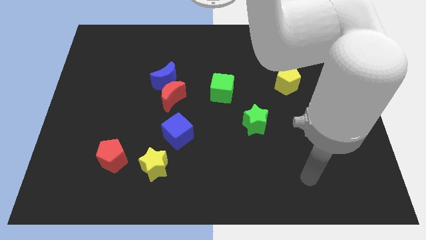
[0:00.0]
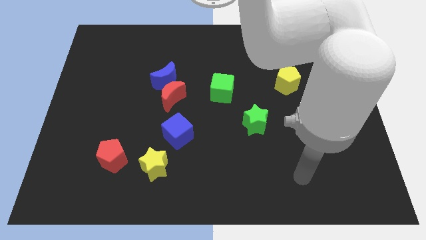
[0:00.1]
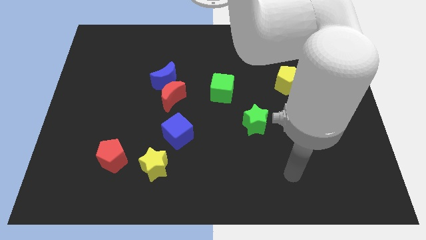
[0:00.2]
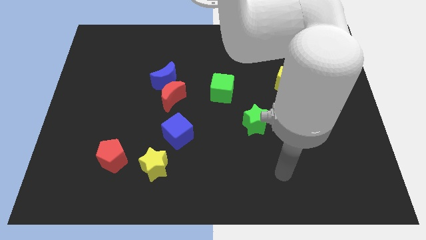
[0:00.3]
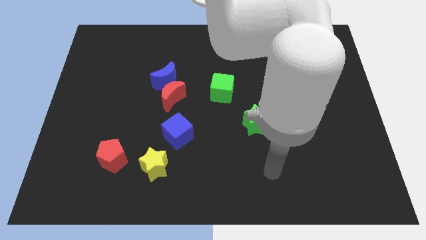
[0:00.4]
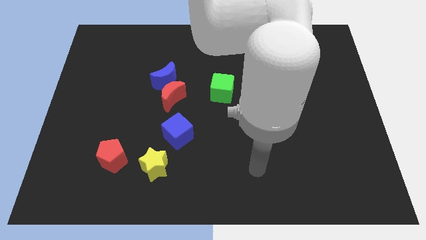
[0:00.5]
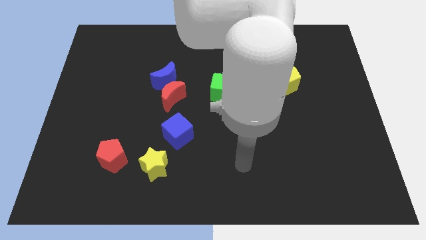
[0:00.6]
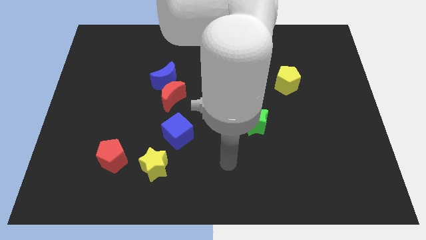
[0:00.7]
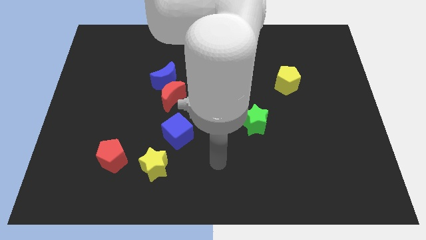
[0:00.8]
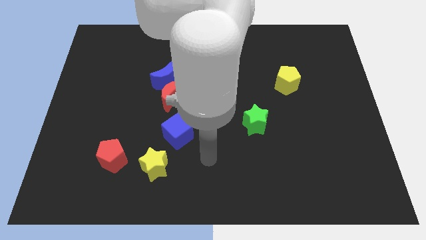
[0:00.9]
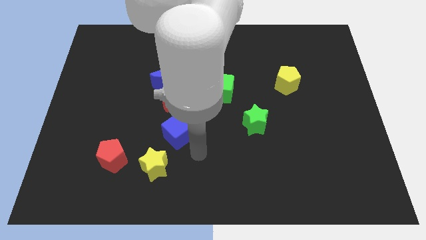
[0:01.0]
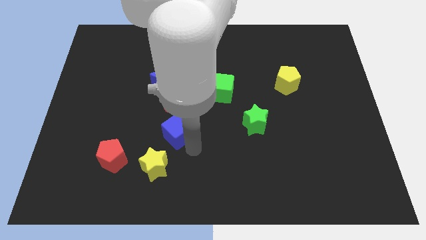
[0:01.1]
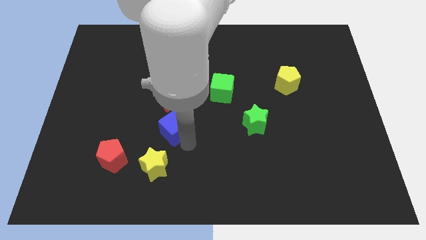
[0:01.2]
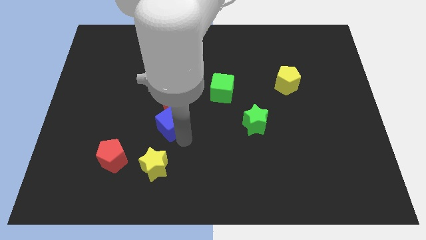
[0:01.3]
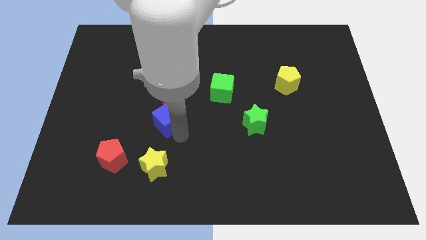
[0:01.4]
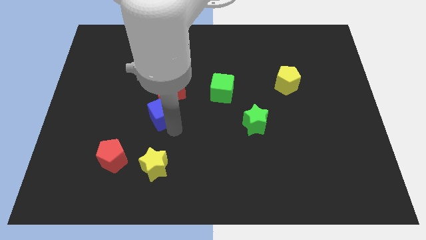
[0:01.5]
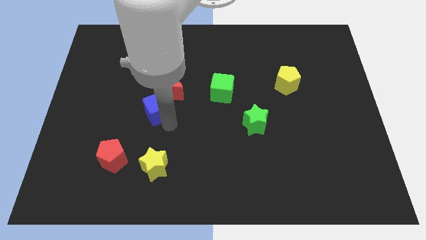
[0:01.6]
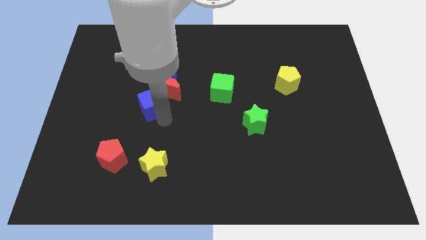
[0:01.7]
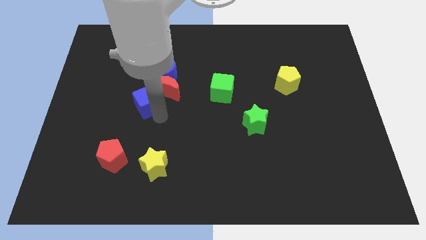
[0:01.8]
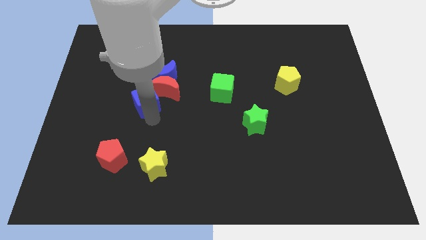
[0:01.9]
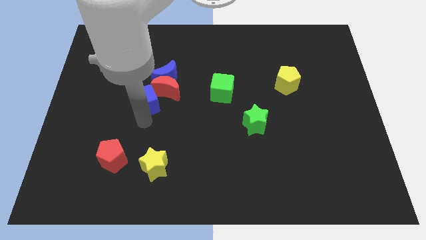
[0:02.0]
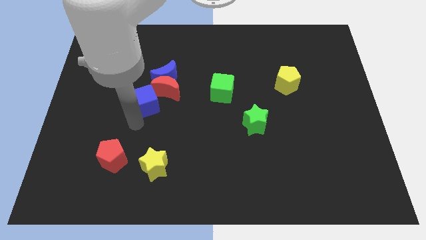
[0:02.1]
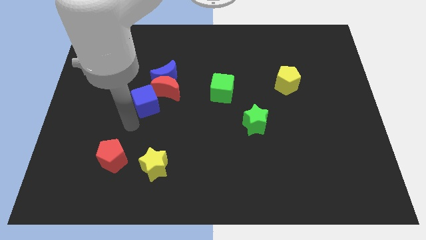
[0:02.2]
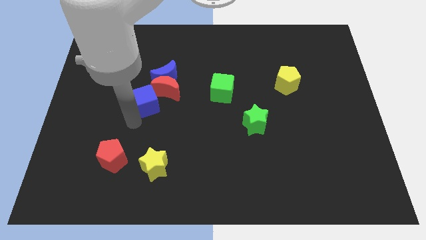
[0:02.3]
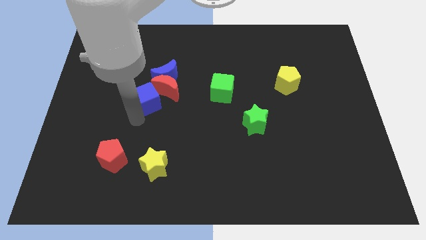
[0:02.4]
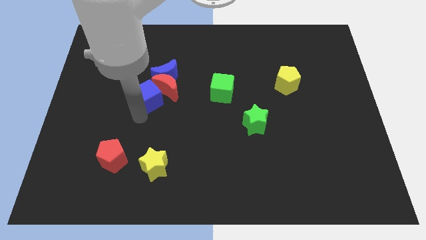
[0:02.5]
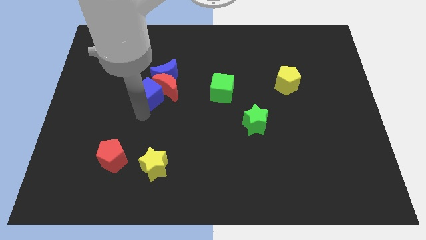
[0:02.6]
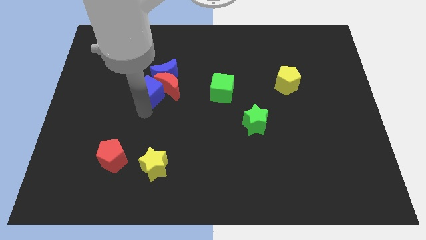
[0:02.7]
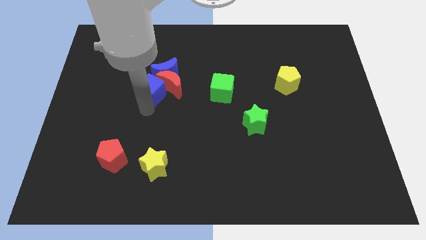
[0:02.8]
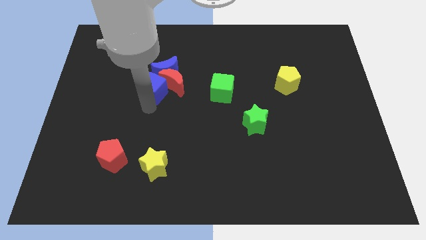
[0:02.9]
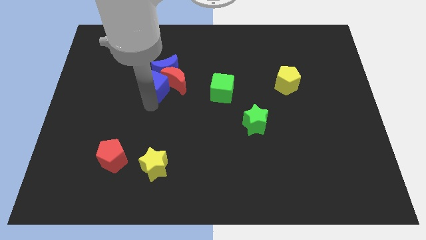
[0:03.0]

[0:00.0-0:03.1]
move the blue cube next to the blue moon

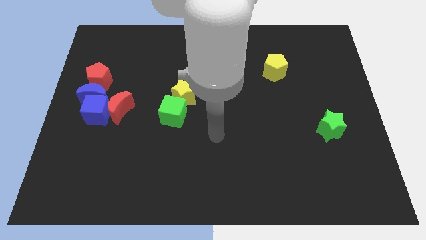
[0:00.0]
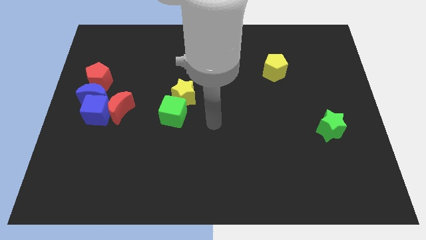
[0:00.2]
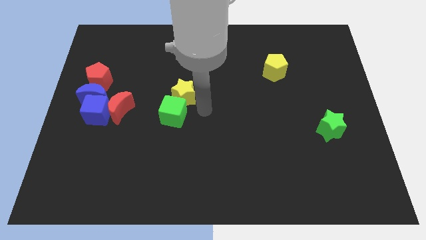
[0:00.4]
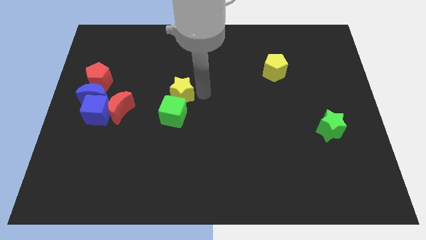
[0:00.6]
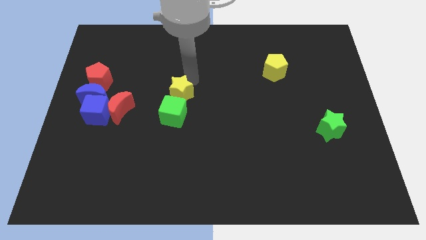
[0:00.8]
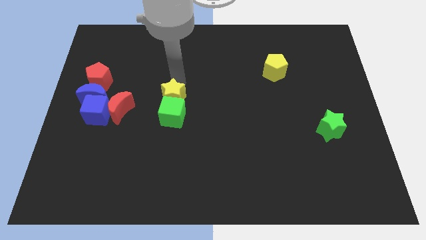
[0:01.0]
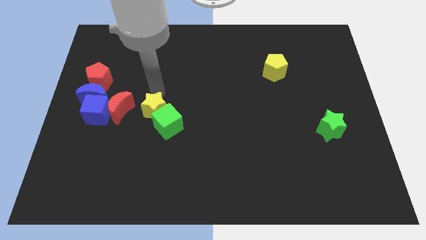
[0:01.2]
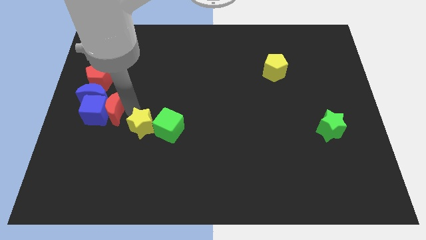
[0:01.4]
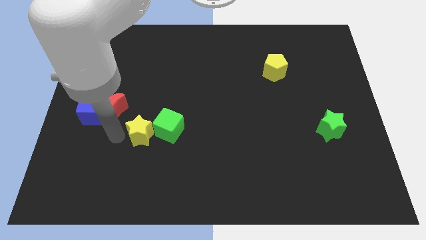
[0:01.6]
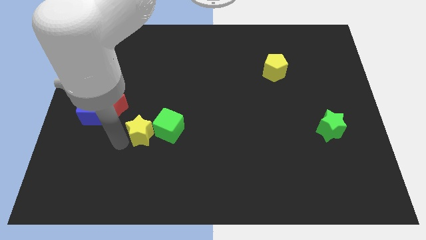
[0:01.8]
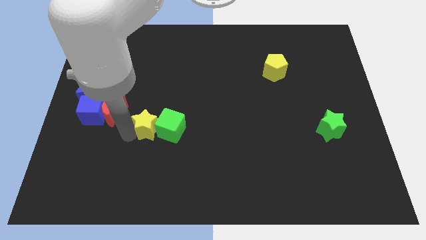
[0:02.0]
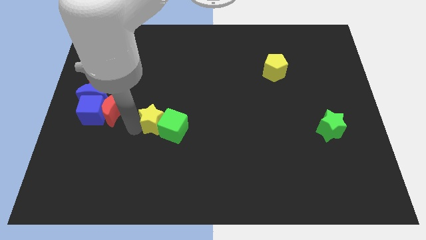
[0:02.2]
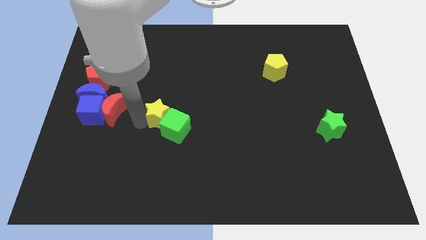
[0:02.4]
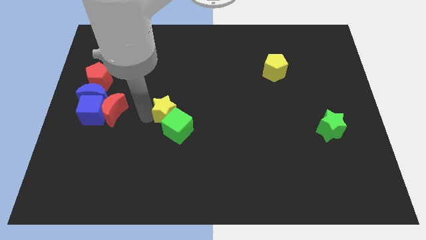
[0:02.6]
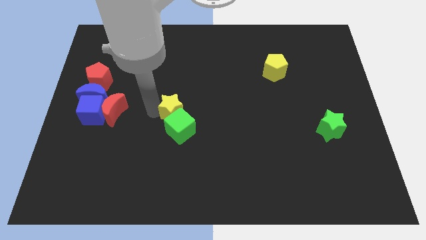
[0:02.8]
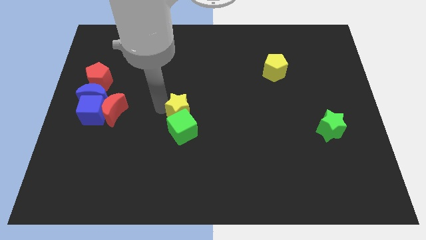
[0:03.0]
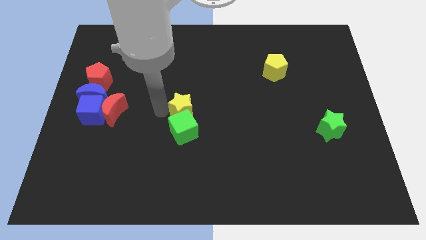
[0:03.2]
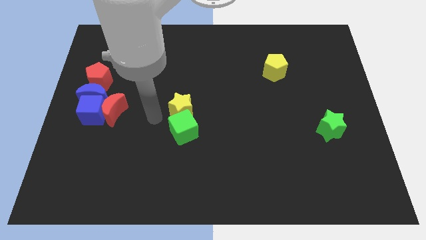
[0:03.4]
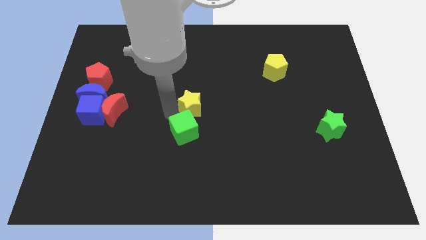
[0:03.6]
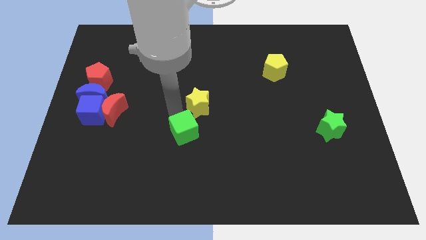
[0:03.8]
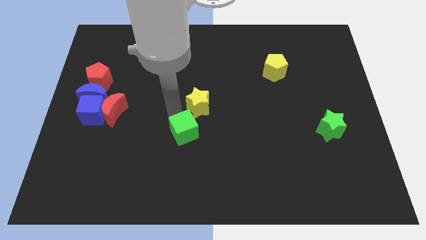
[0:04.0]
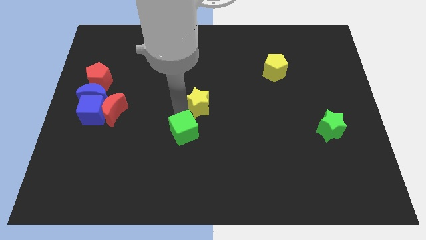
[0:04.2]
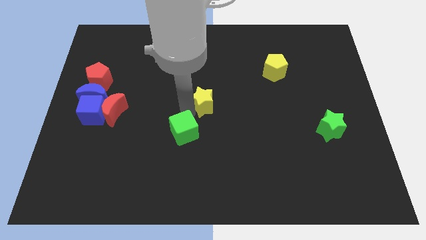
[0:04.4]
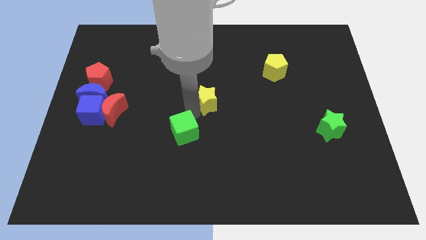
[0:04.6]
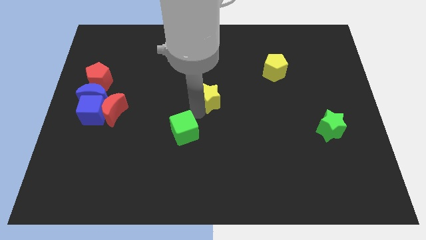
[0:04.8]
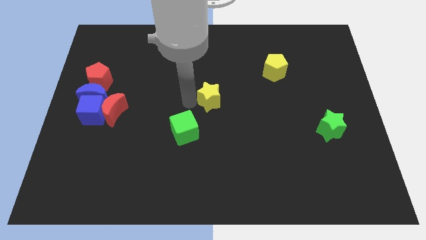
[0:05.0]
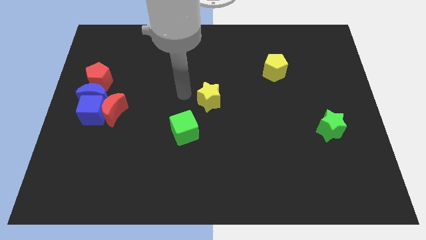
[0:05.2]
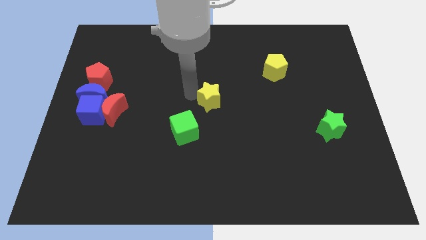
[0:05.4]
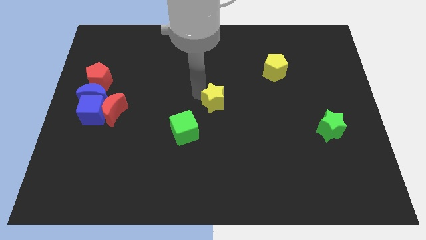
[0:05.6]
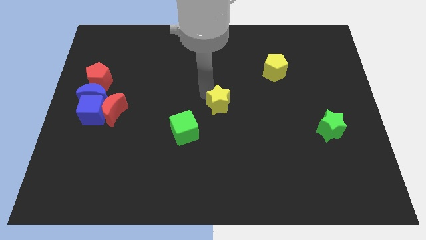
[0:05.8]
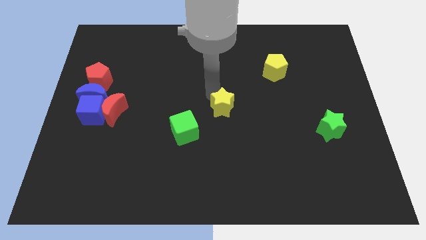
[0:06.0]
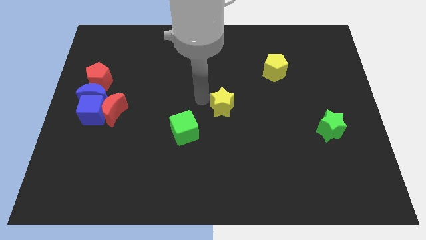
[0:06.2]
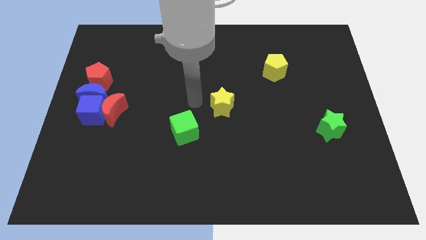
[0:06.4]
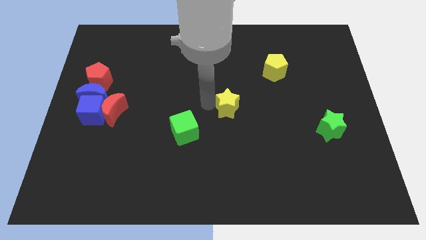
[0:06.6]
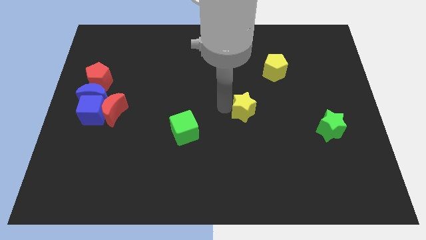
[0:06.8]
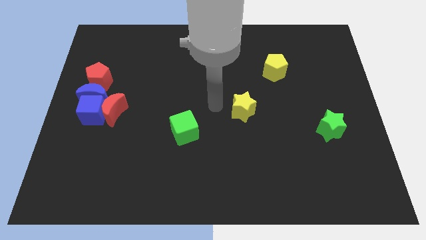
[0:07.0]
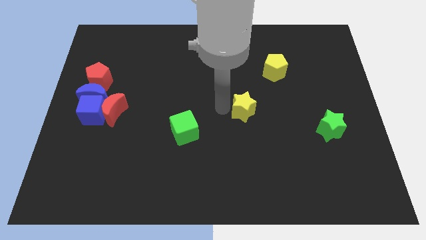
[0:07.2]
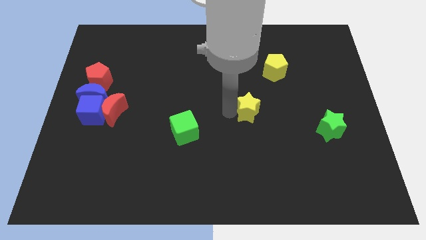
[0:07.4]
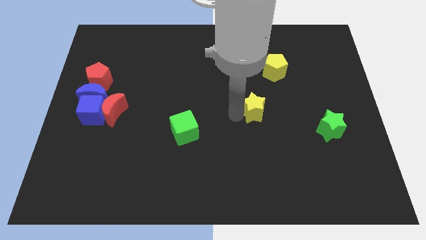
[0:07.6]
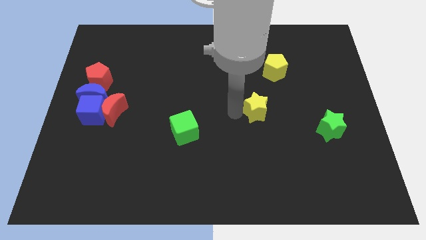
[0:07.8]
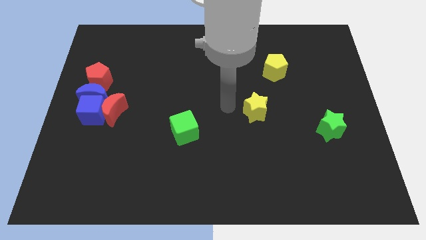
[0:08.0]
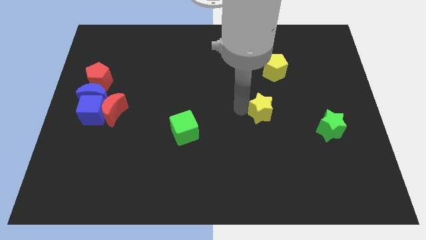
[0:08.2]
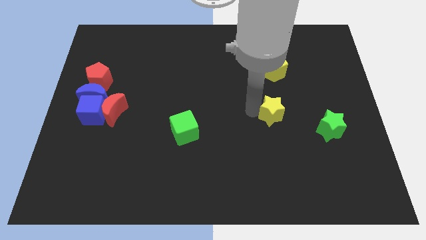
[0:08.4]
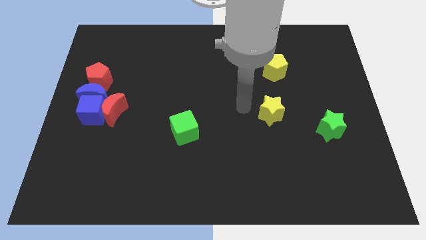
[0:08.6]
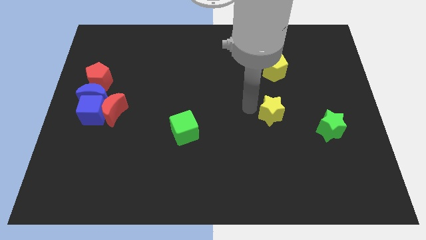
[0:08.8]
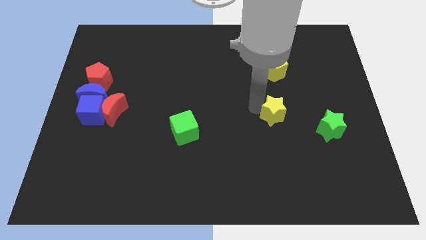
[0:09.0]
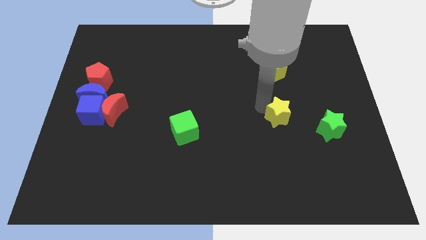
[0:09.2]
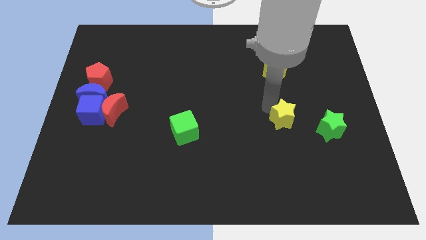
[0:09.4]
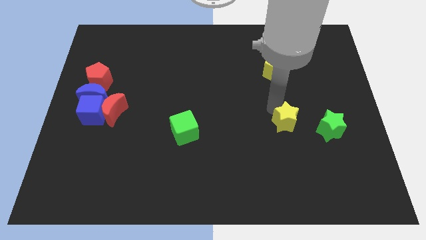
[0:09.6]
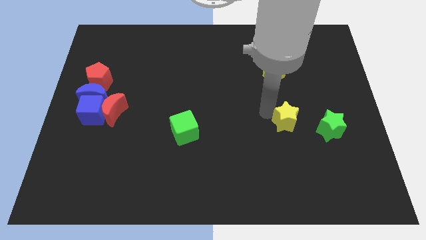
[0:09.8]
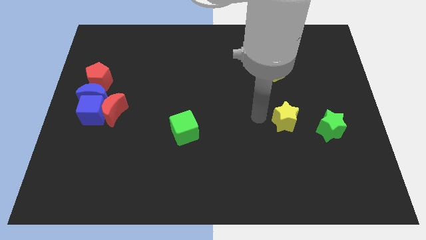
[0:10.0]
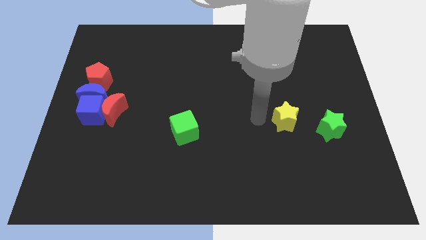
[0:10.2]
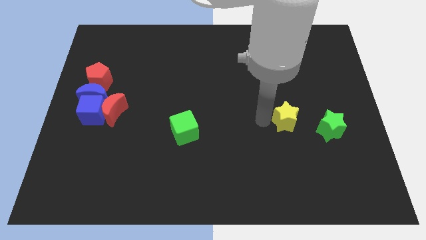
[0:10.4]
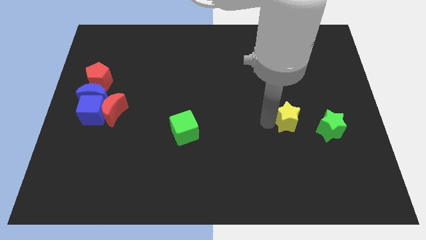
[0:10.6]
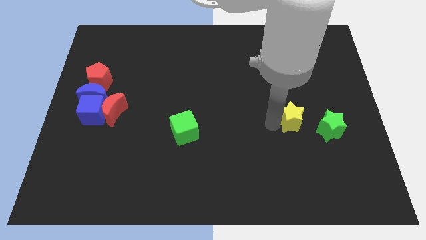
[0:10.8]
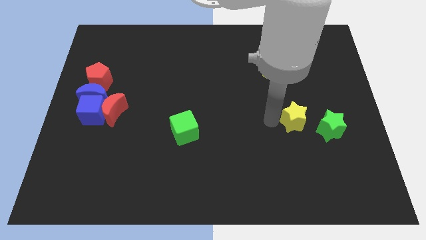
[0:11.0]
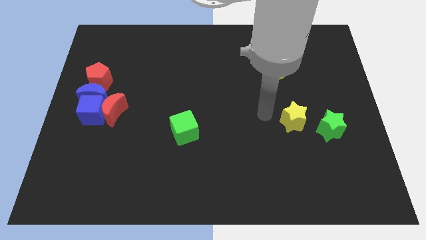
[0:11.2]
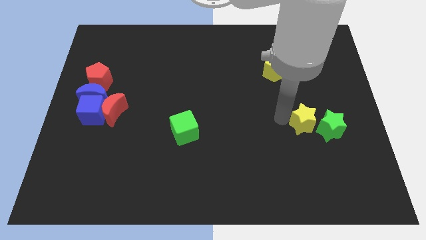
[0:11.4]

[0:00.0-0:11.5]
put the yellow star to the green star
